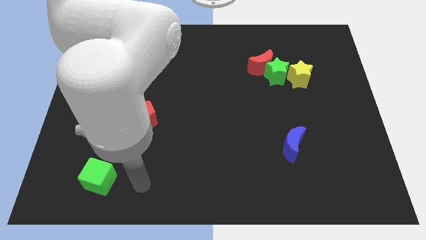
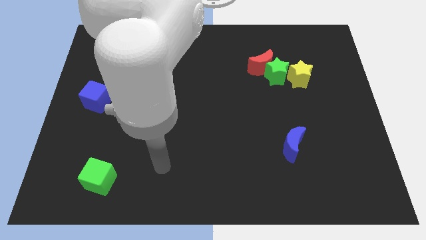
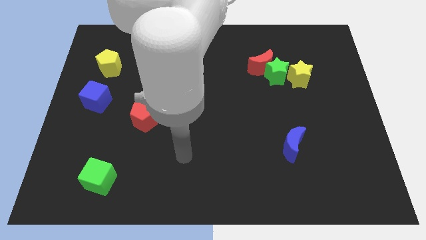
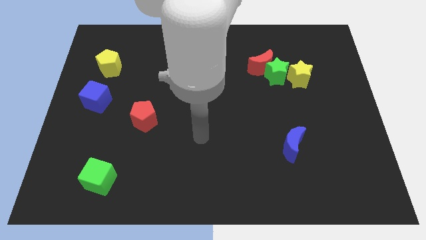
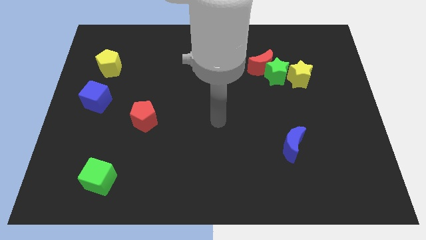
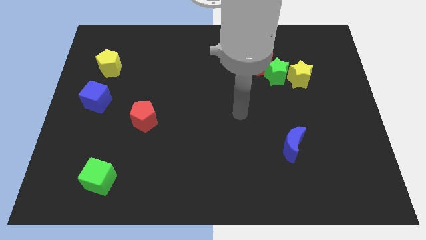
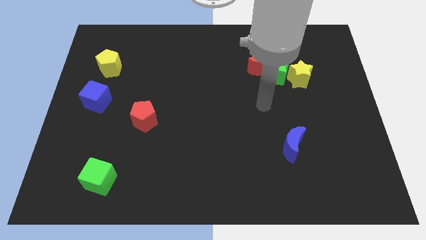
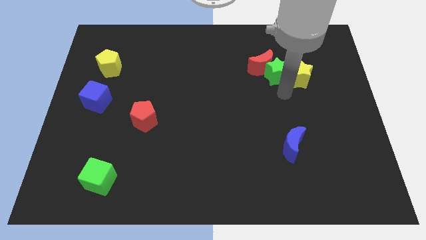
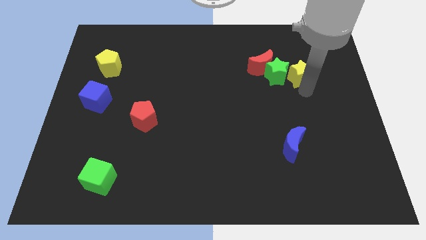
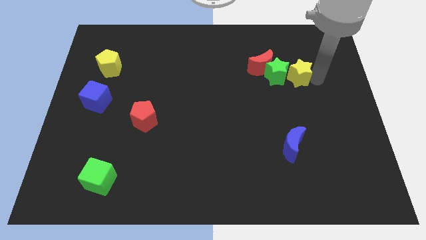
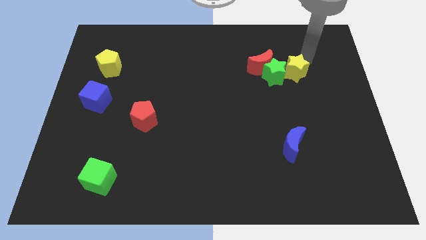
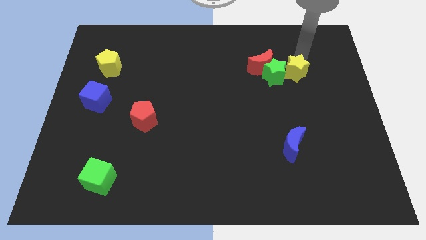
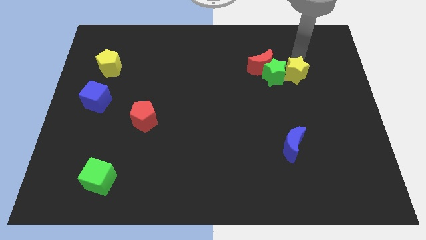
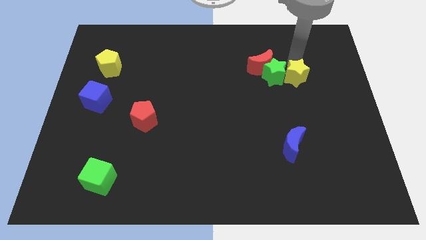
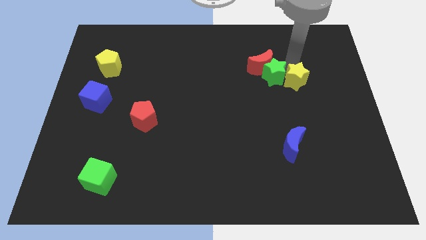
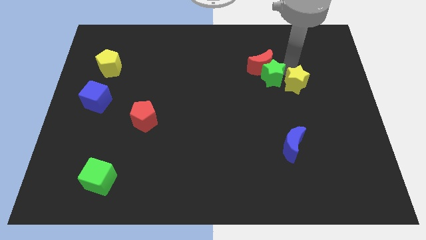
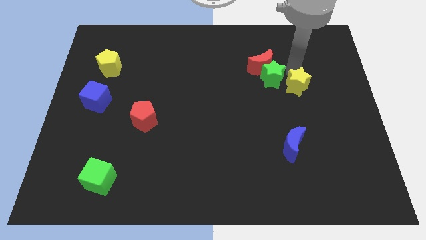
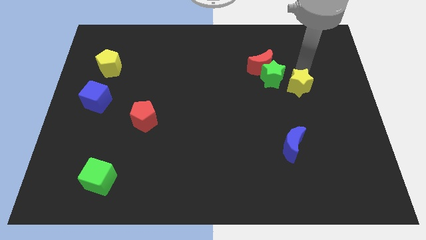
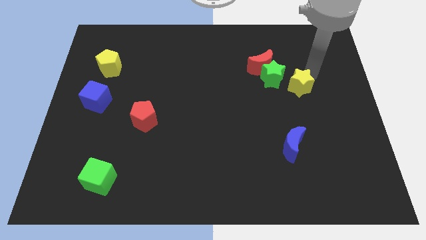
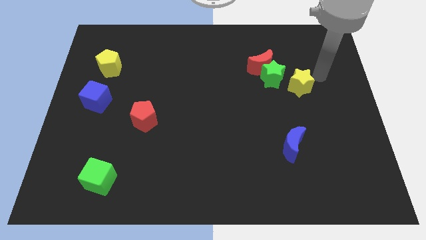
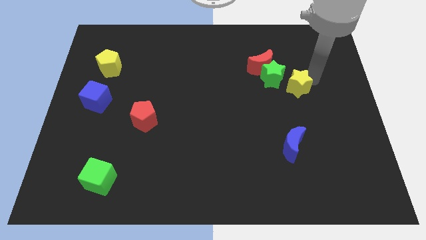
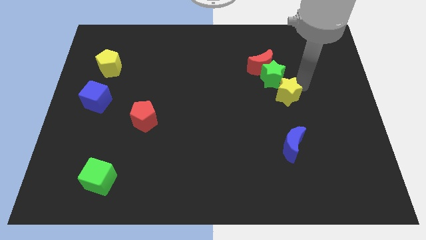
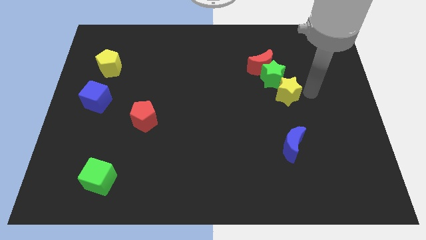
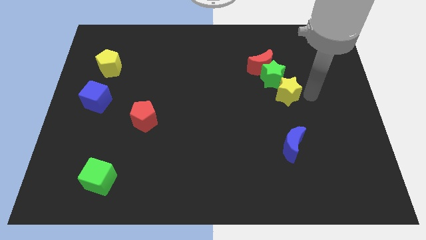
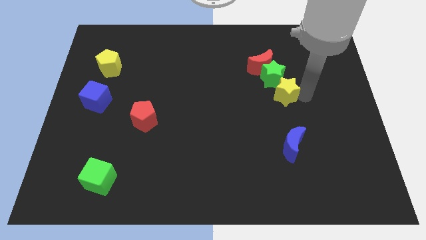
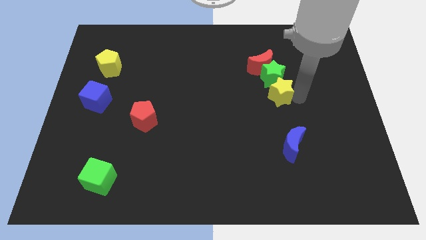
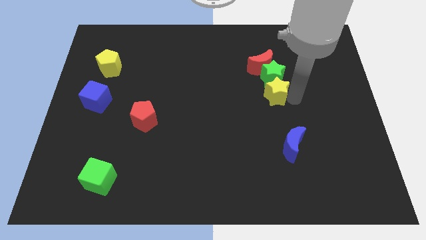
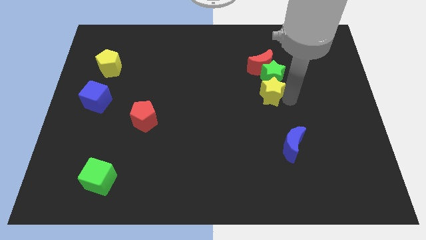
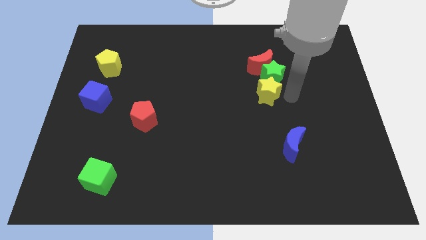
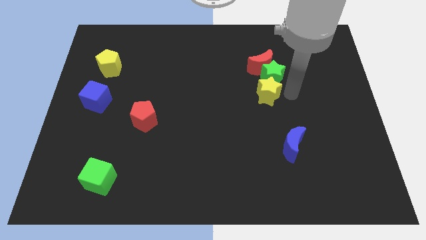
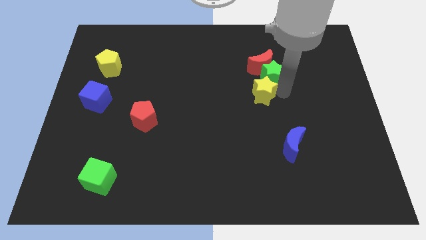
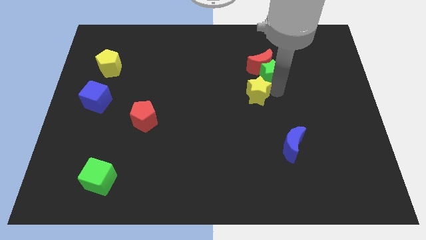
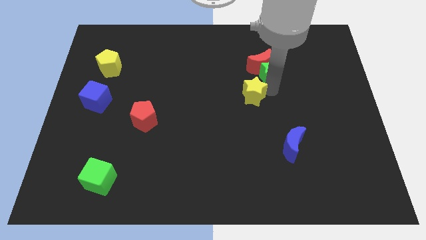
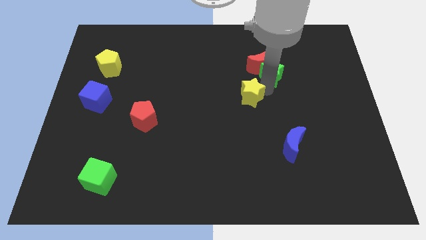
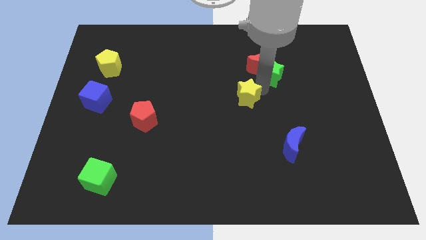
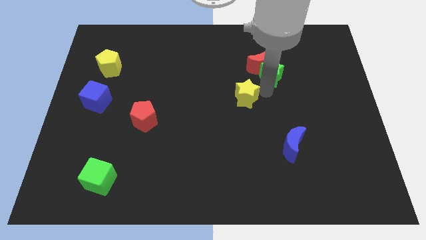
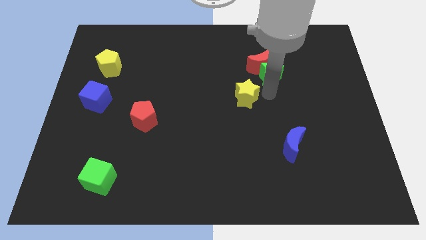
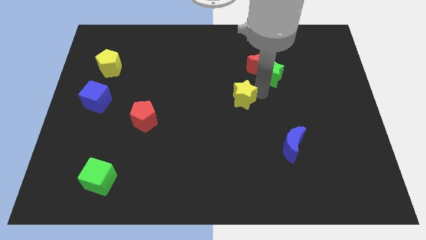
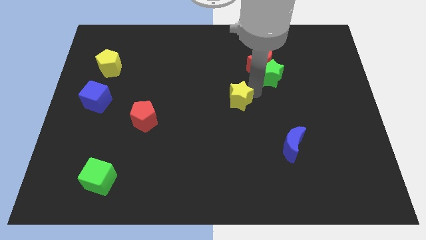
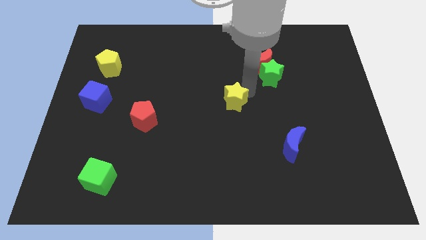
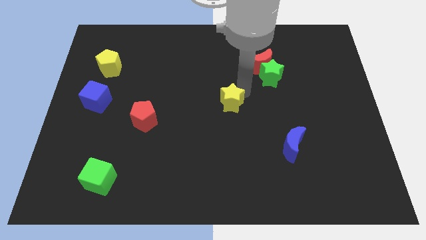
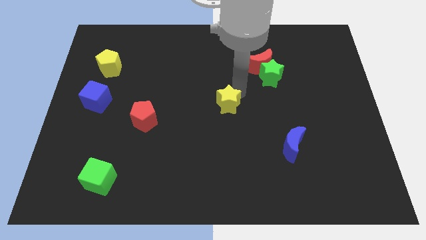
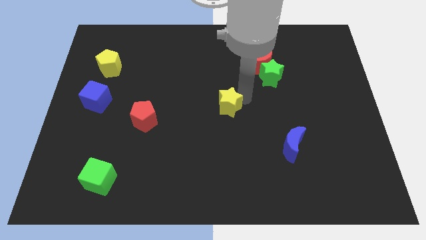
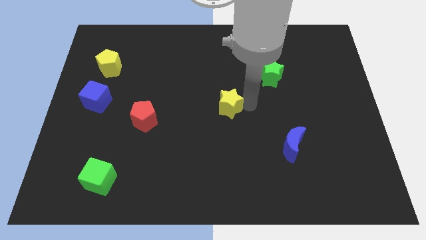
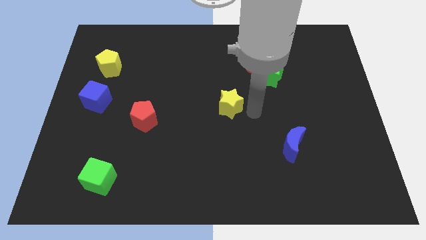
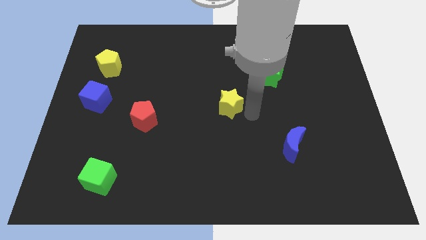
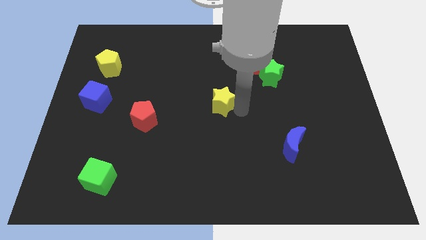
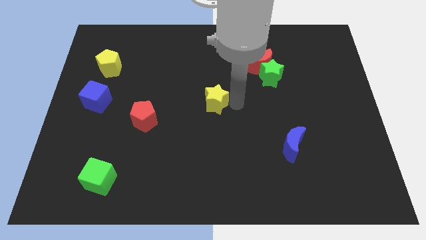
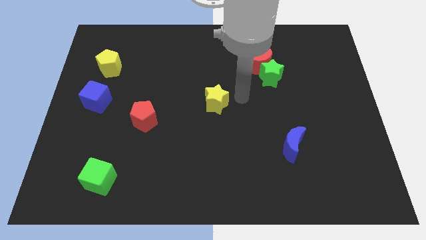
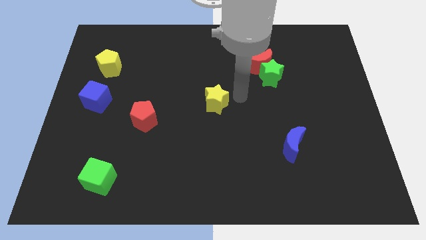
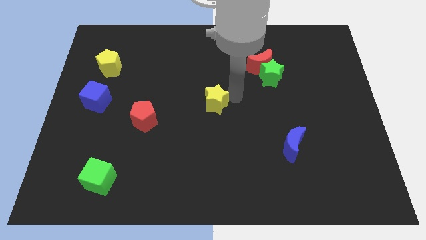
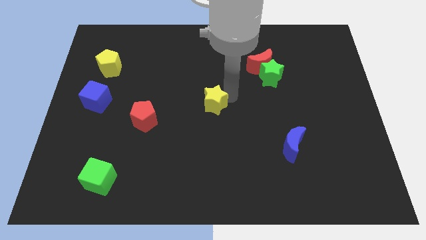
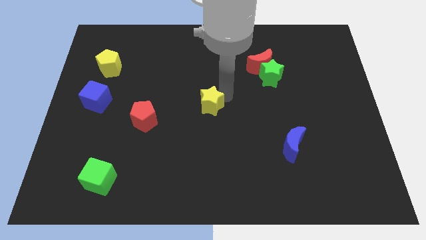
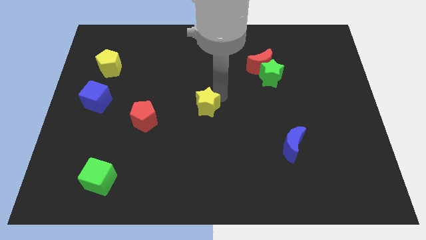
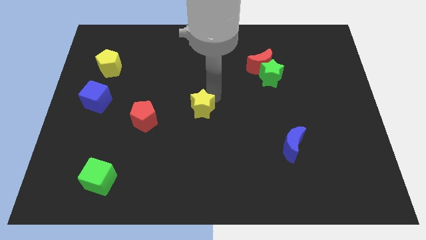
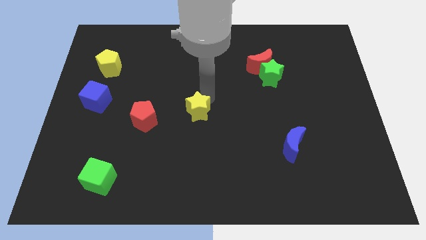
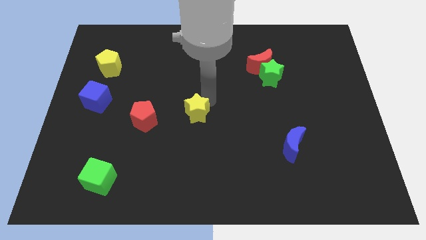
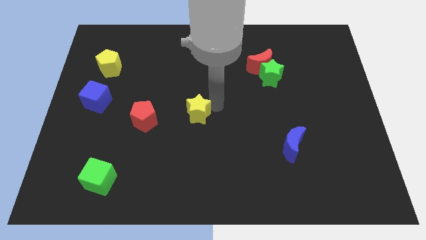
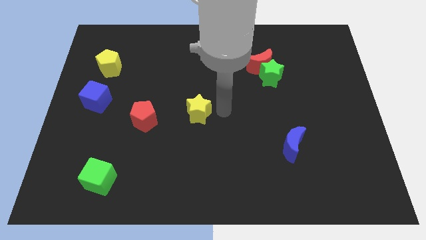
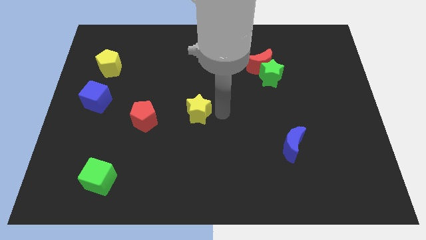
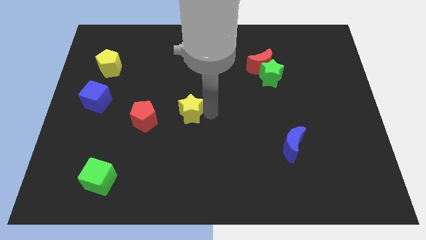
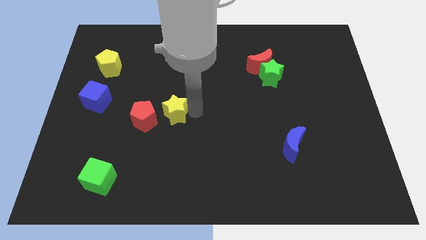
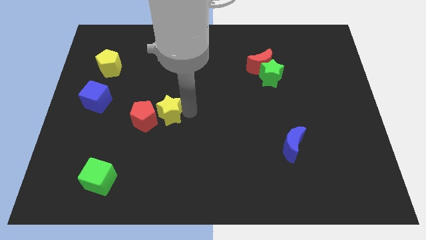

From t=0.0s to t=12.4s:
push the yellow star next to the red pentagon

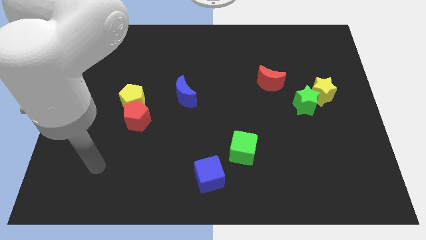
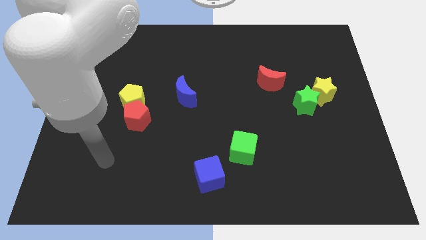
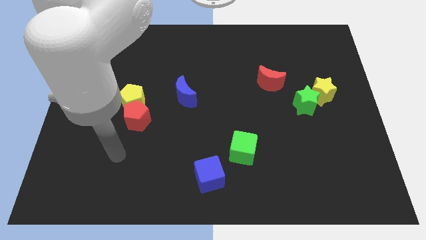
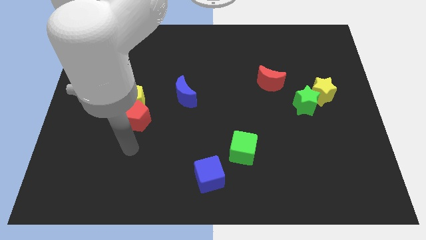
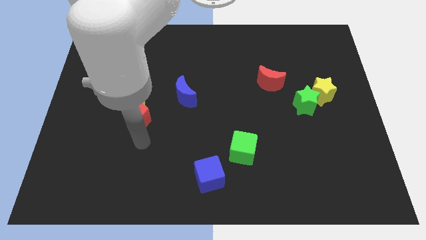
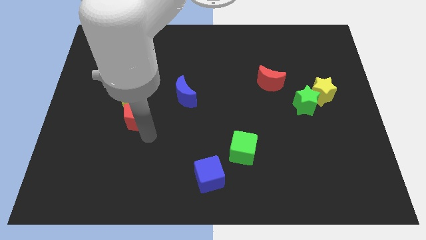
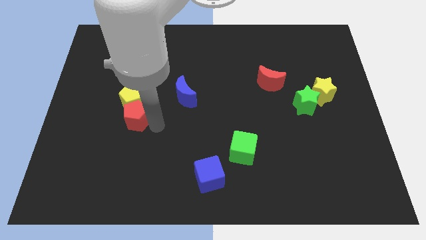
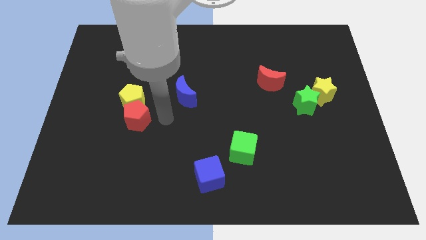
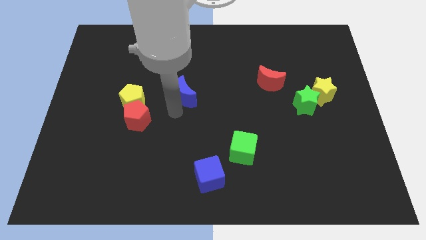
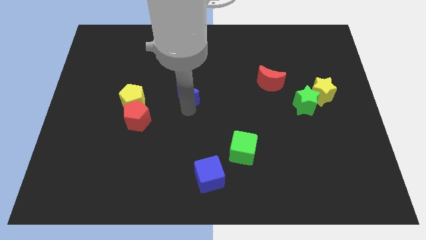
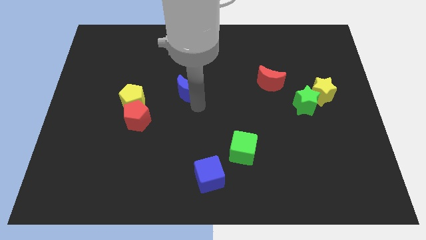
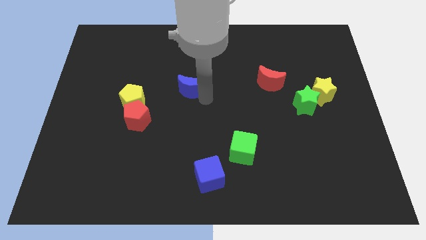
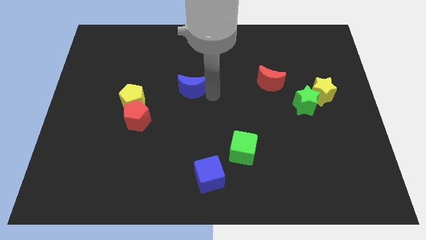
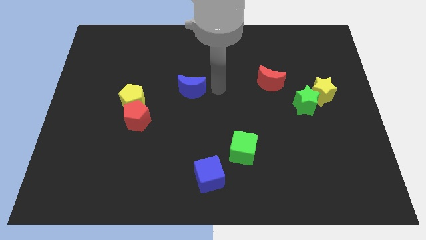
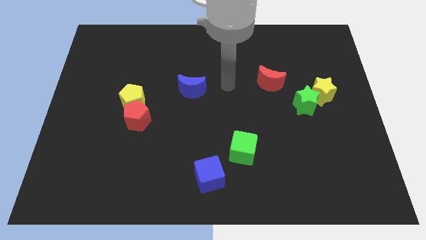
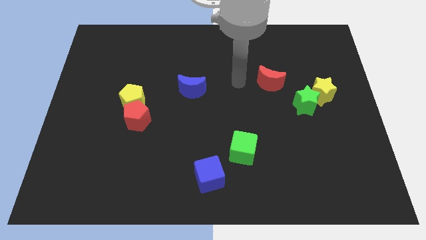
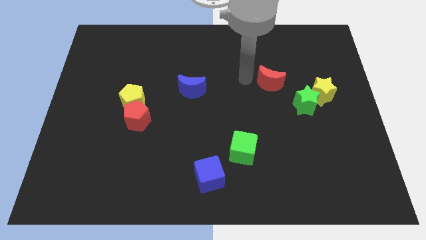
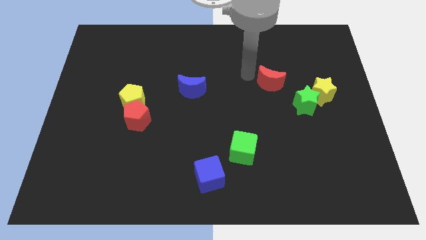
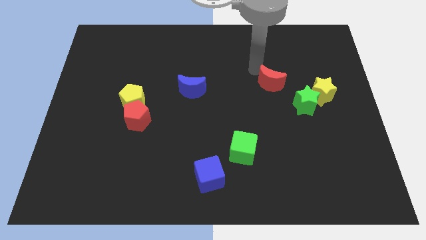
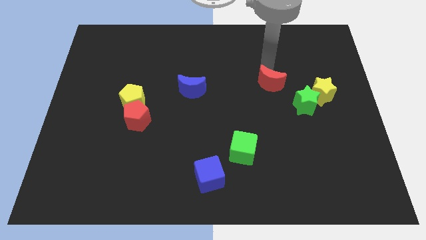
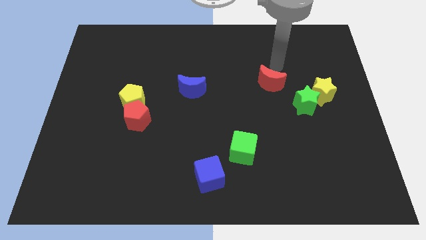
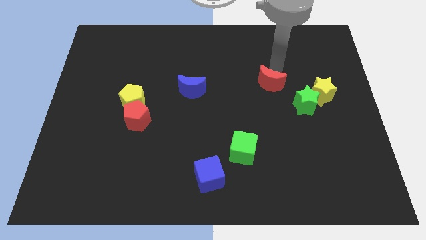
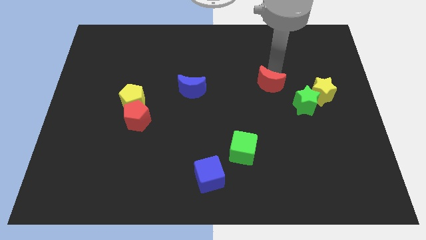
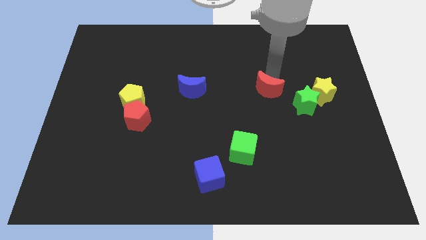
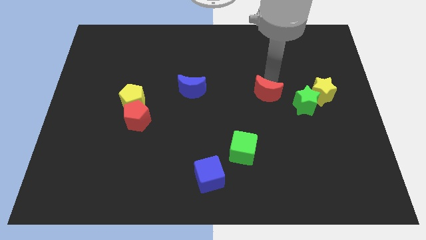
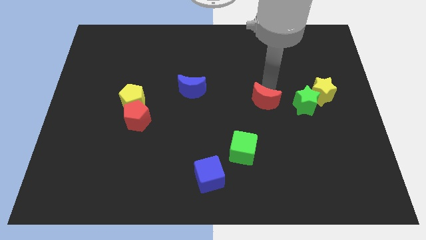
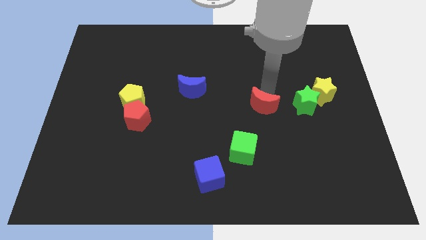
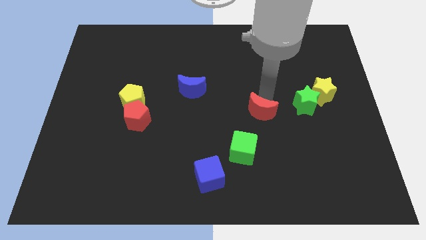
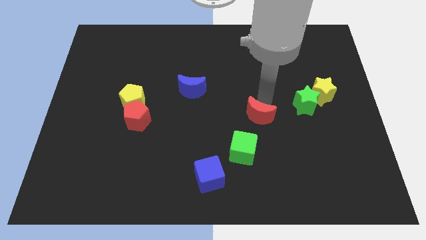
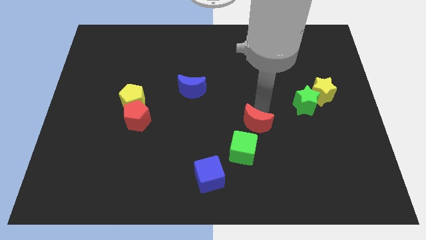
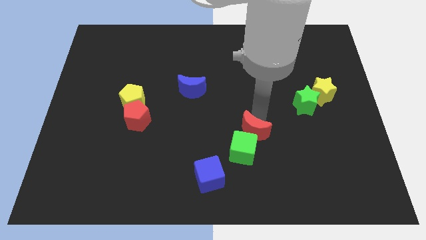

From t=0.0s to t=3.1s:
put the red moon towards the green cube
